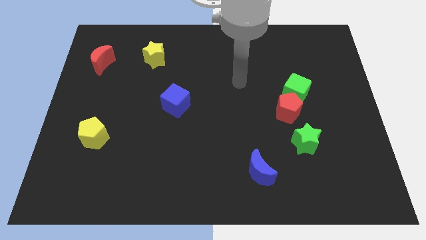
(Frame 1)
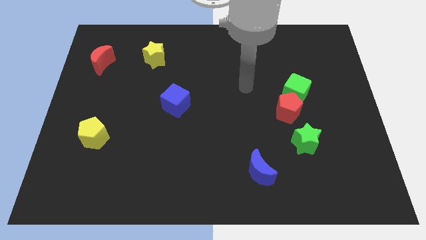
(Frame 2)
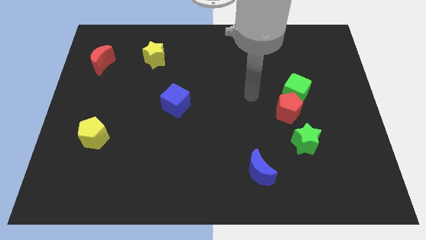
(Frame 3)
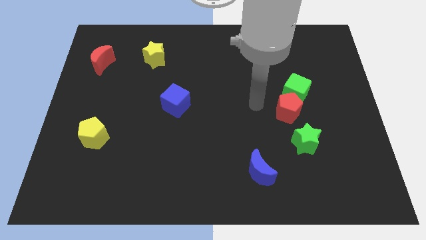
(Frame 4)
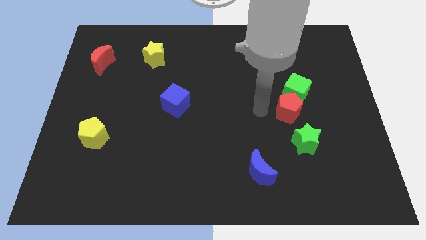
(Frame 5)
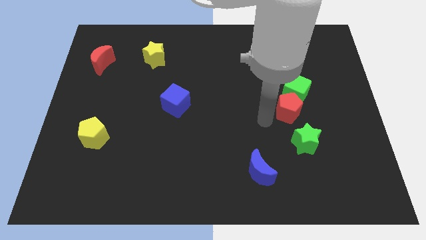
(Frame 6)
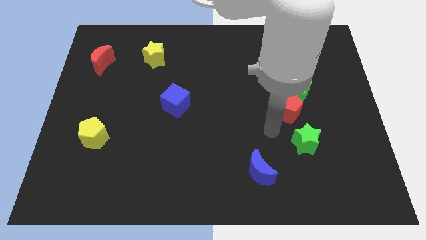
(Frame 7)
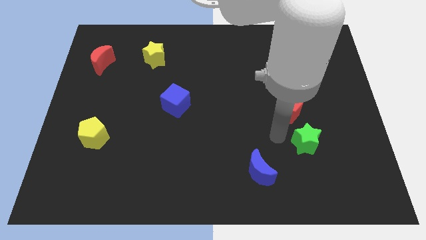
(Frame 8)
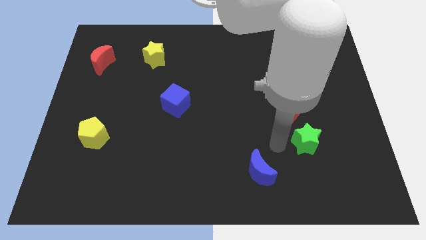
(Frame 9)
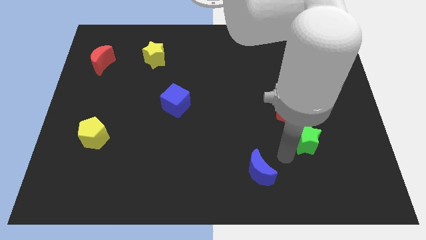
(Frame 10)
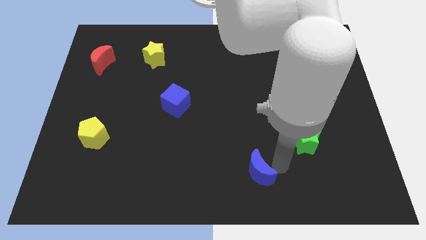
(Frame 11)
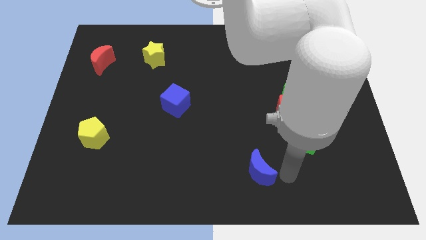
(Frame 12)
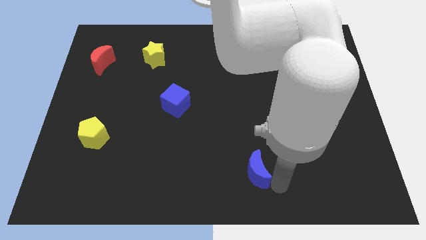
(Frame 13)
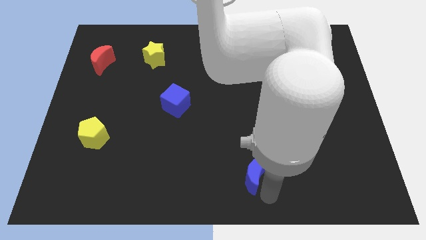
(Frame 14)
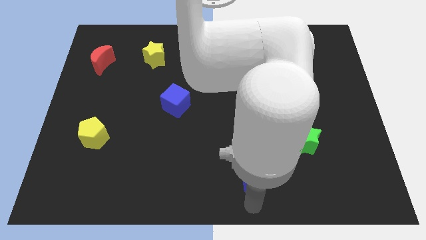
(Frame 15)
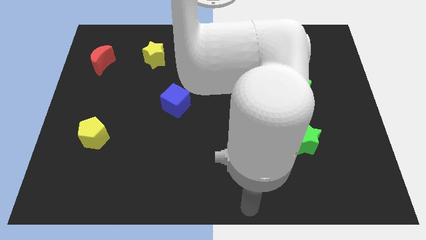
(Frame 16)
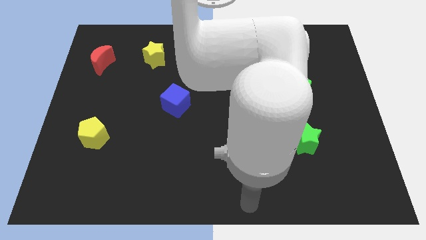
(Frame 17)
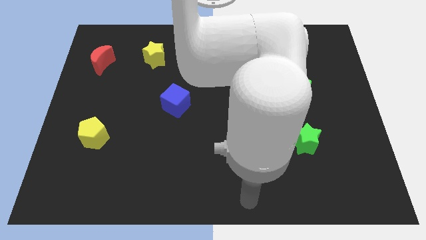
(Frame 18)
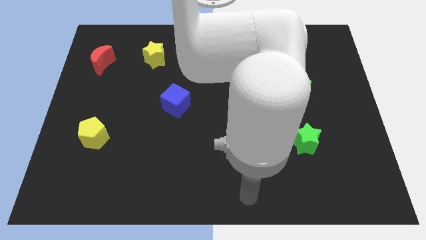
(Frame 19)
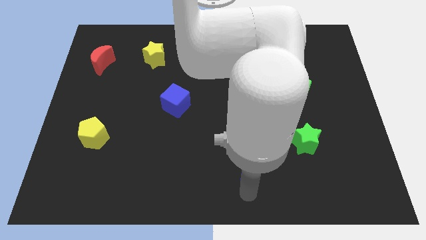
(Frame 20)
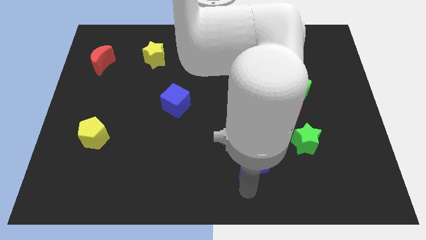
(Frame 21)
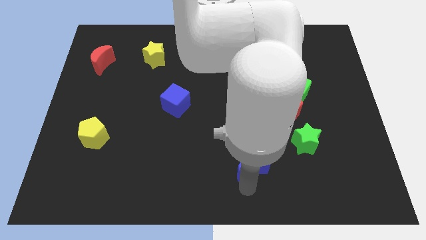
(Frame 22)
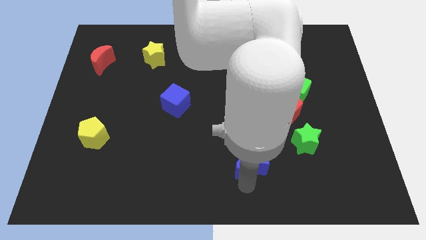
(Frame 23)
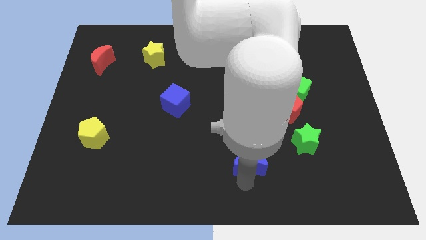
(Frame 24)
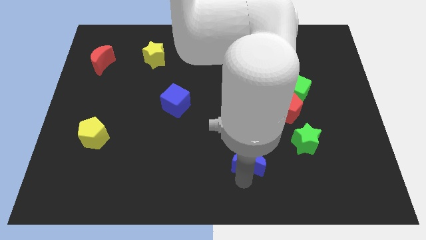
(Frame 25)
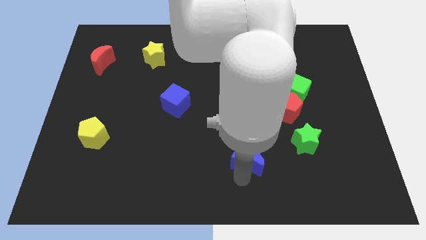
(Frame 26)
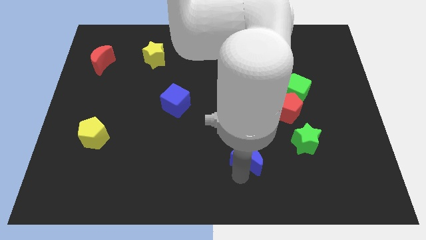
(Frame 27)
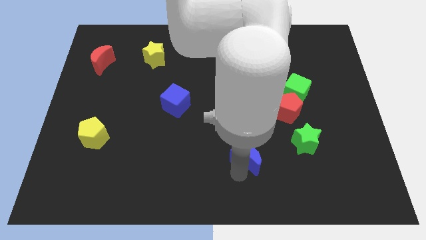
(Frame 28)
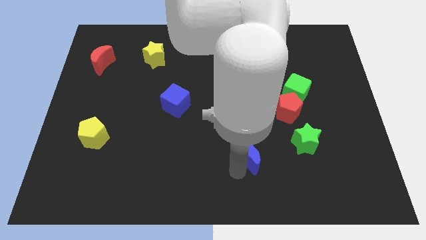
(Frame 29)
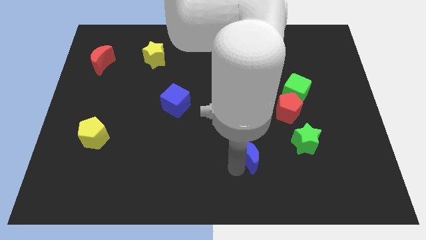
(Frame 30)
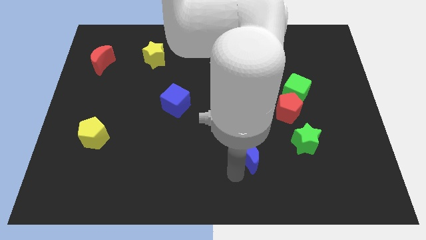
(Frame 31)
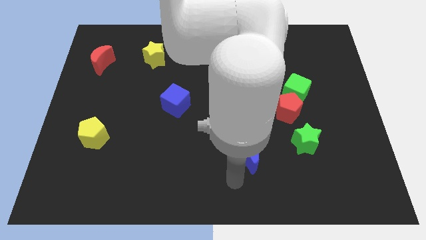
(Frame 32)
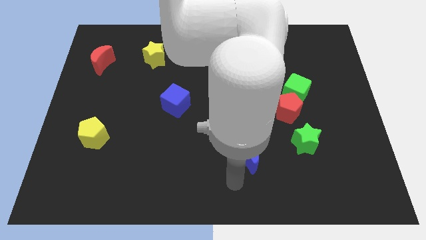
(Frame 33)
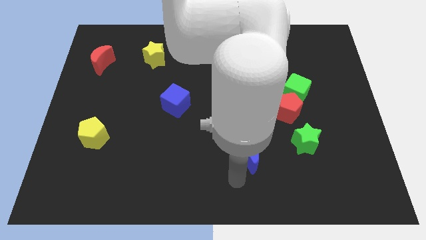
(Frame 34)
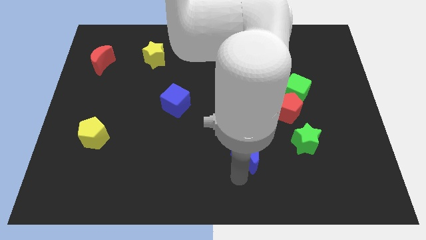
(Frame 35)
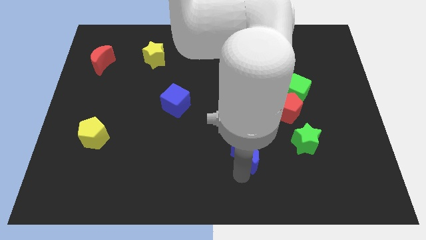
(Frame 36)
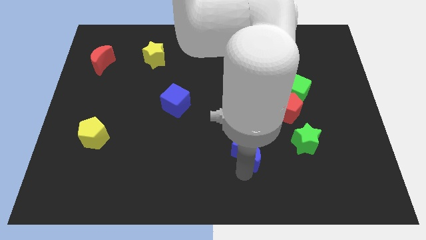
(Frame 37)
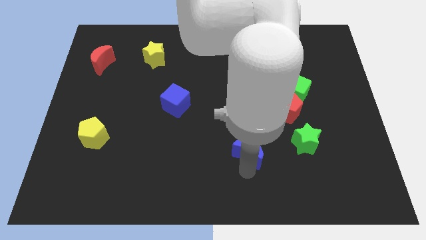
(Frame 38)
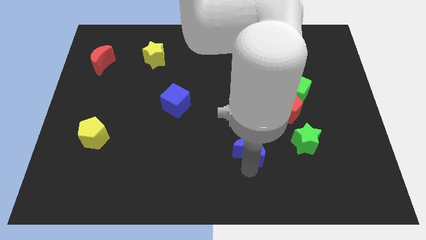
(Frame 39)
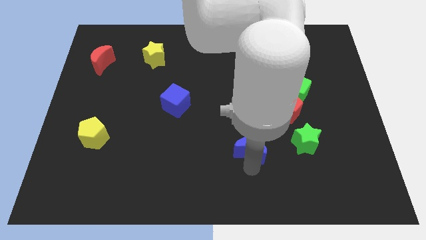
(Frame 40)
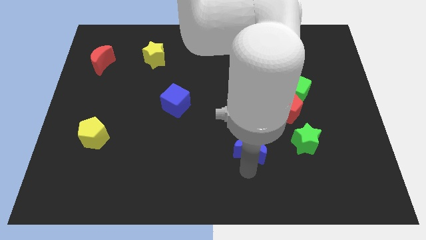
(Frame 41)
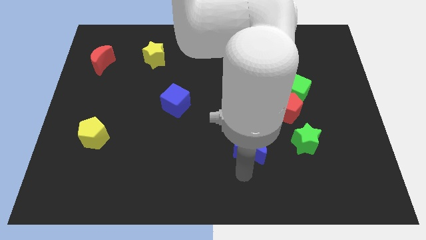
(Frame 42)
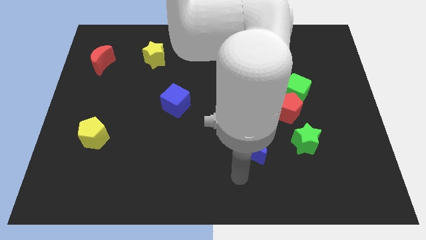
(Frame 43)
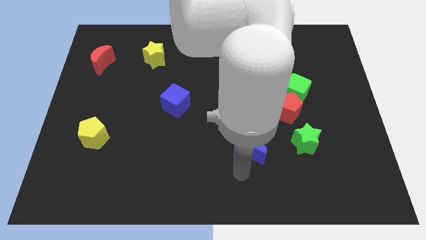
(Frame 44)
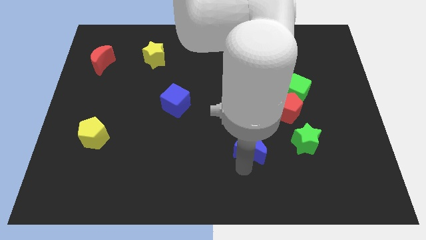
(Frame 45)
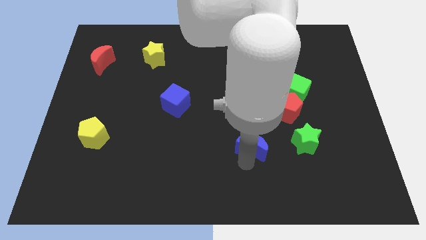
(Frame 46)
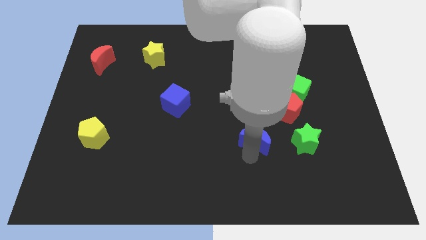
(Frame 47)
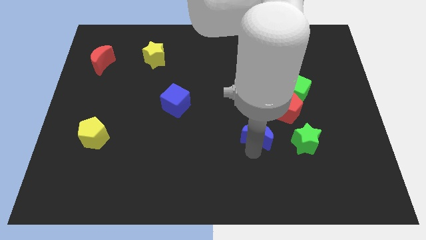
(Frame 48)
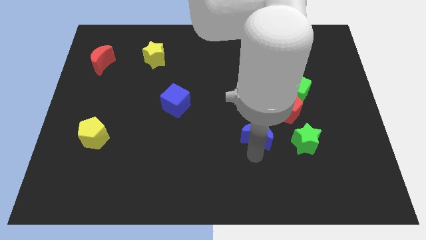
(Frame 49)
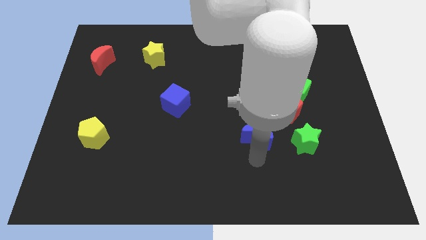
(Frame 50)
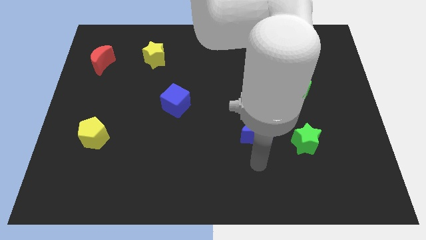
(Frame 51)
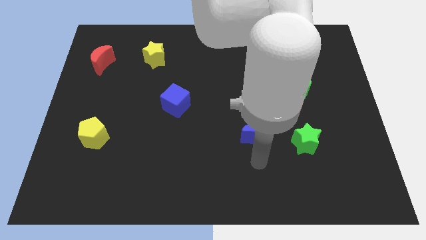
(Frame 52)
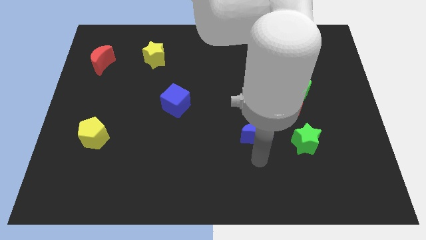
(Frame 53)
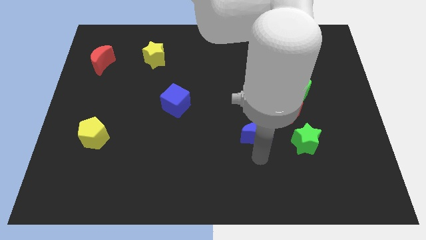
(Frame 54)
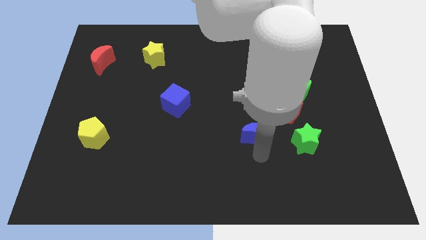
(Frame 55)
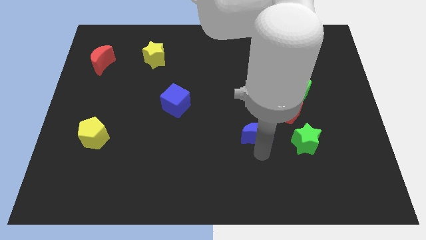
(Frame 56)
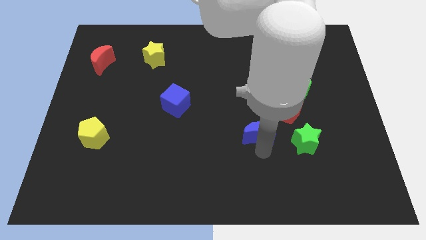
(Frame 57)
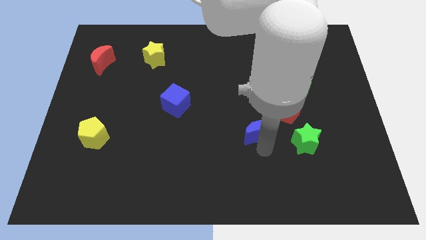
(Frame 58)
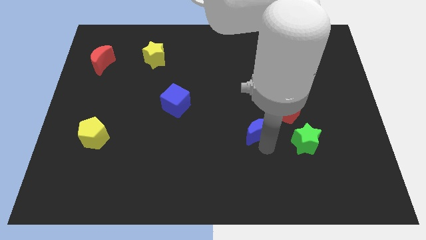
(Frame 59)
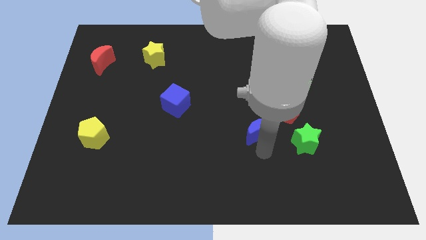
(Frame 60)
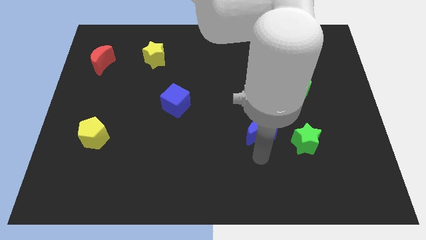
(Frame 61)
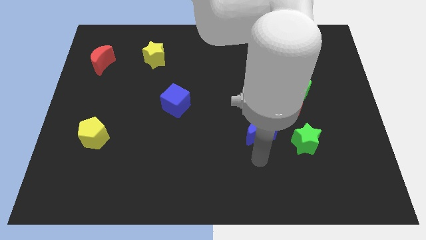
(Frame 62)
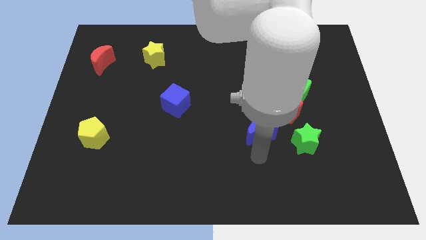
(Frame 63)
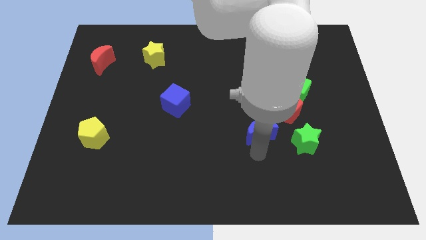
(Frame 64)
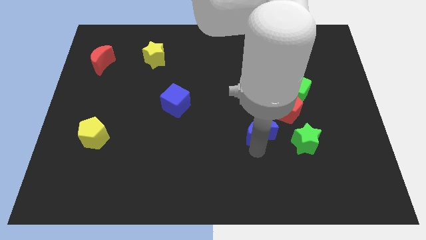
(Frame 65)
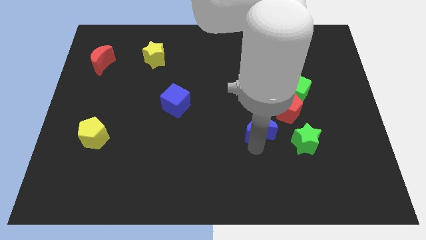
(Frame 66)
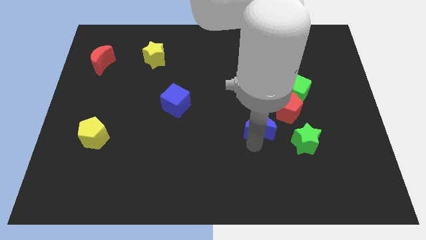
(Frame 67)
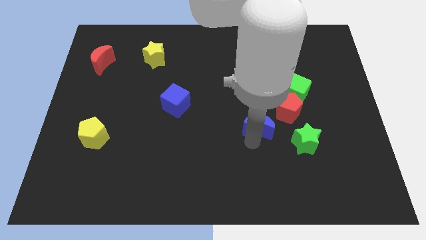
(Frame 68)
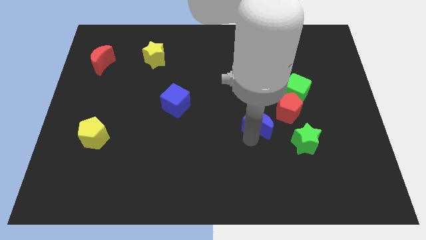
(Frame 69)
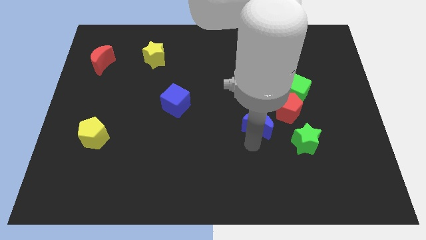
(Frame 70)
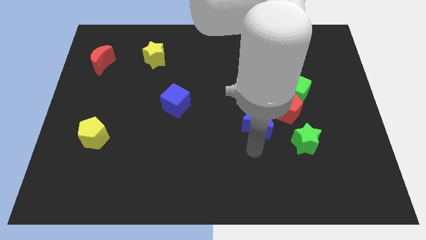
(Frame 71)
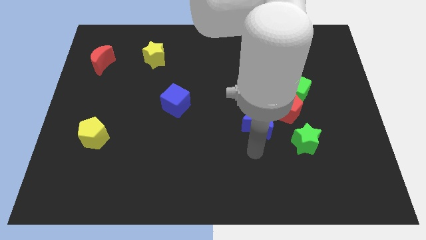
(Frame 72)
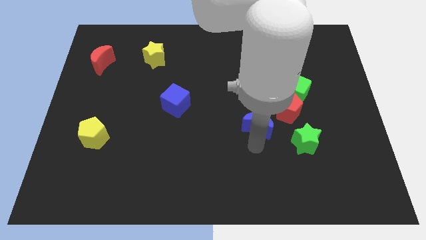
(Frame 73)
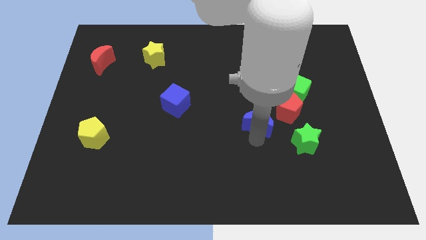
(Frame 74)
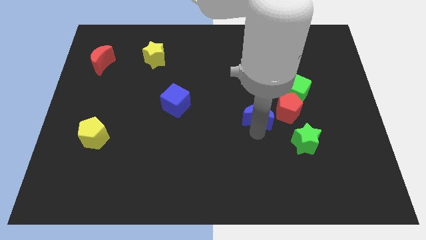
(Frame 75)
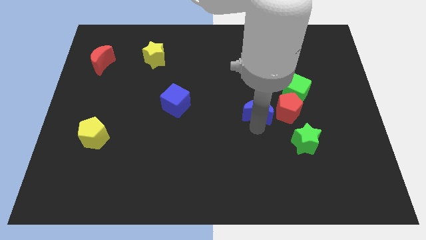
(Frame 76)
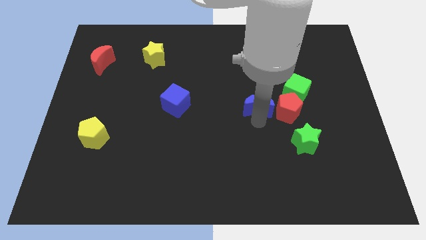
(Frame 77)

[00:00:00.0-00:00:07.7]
slide the blue moon to the left side of the green cube
